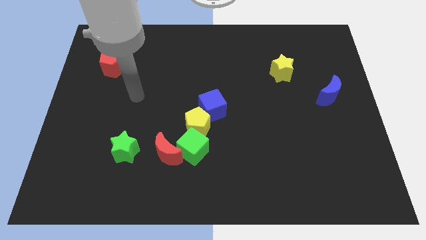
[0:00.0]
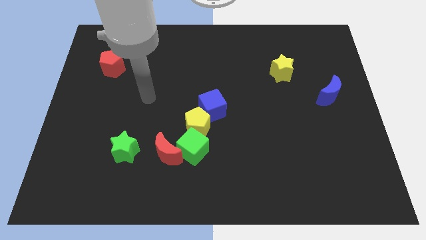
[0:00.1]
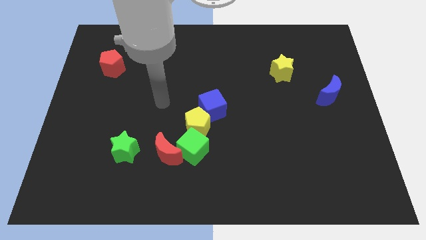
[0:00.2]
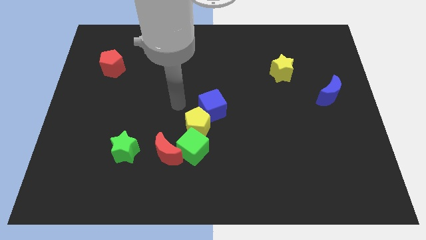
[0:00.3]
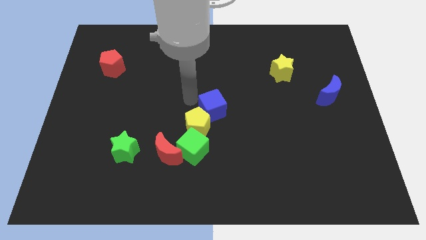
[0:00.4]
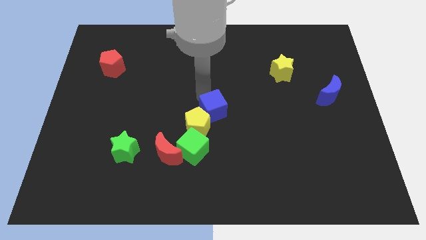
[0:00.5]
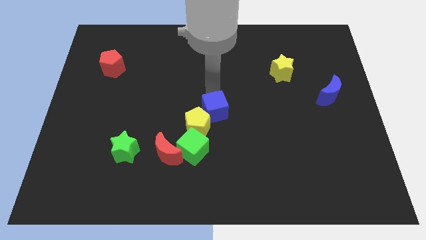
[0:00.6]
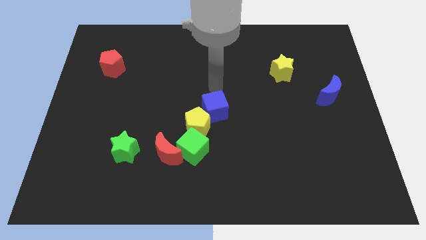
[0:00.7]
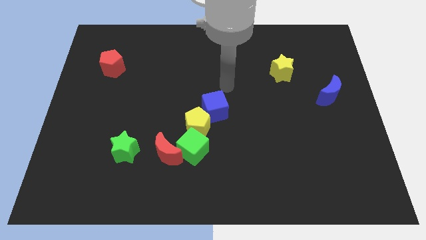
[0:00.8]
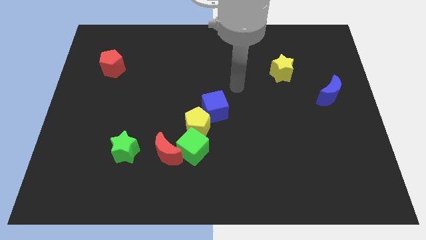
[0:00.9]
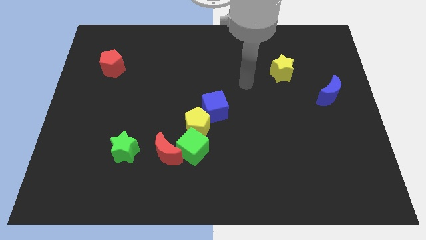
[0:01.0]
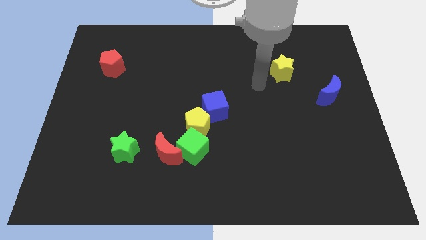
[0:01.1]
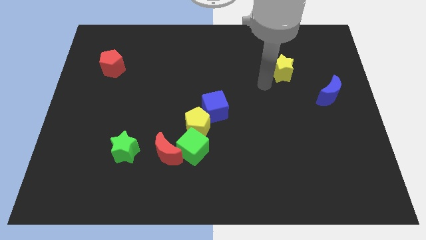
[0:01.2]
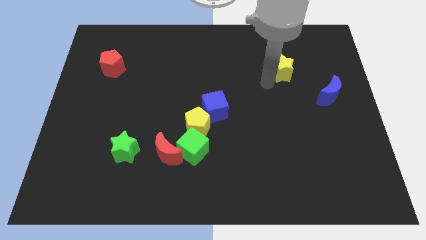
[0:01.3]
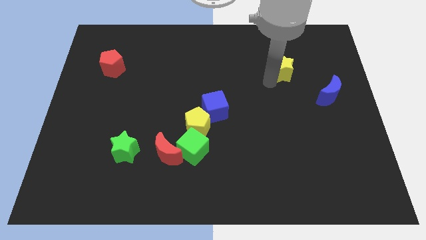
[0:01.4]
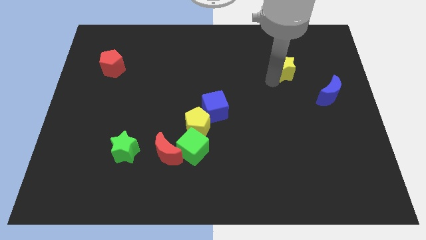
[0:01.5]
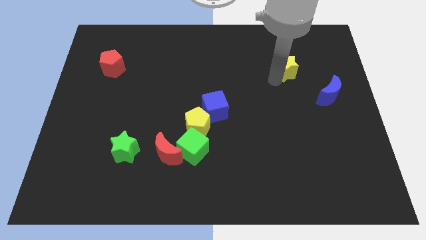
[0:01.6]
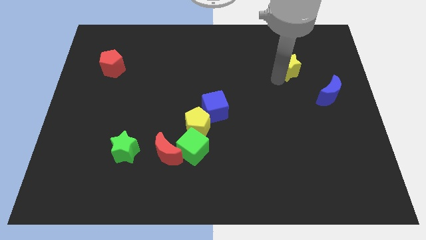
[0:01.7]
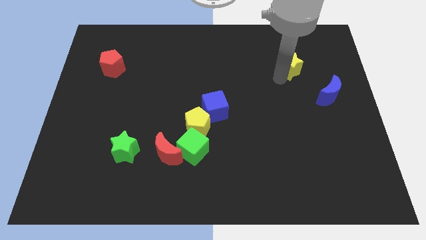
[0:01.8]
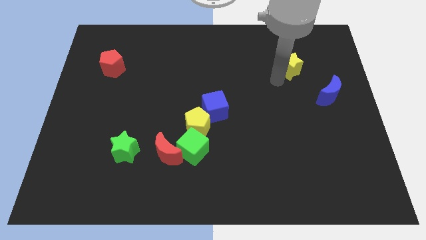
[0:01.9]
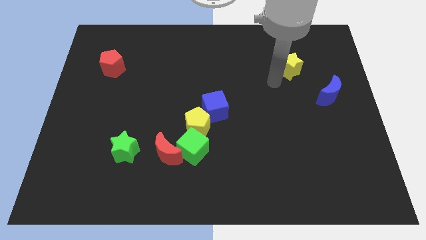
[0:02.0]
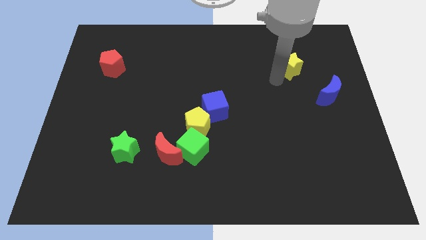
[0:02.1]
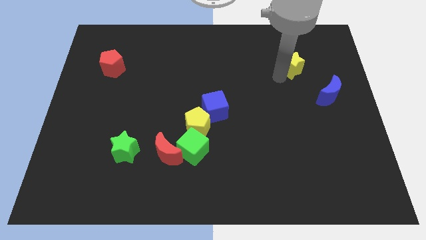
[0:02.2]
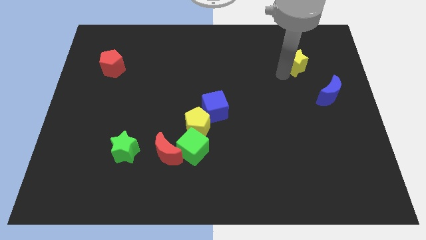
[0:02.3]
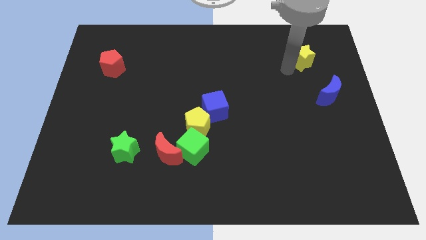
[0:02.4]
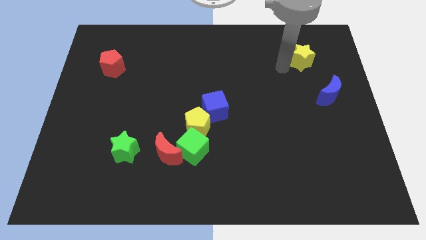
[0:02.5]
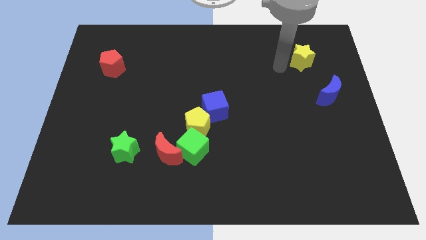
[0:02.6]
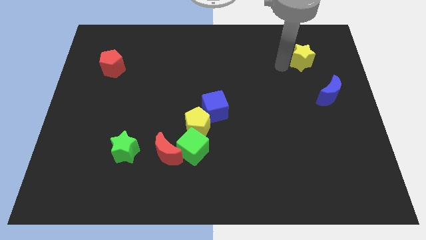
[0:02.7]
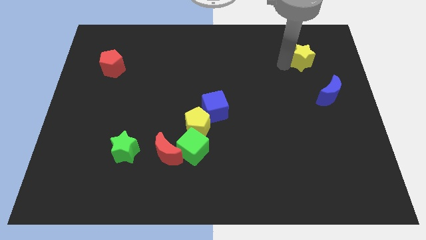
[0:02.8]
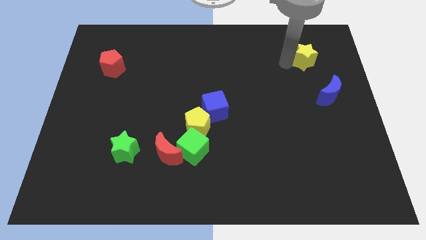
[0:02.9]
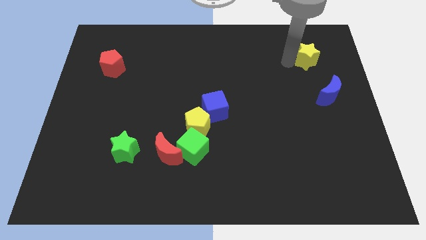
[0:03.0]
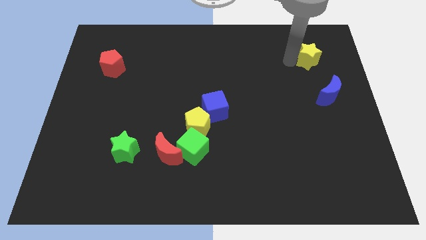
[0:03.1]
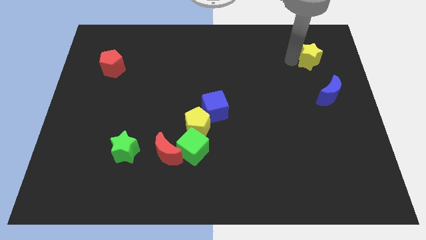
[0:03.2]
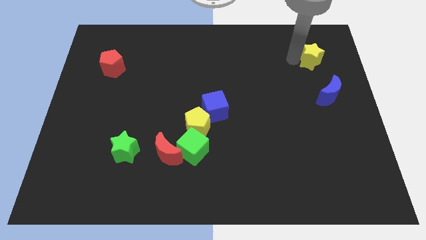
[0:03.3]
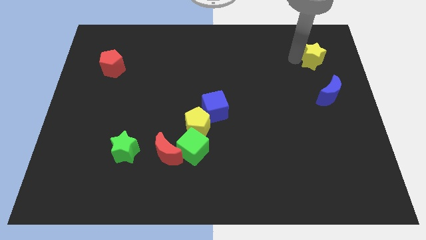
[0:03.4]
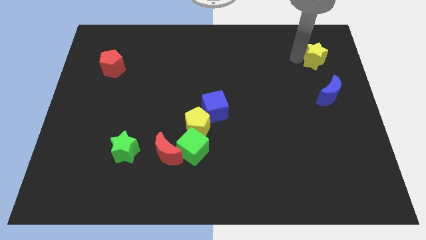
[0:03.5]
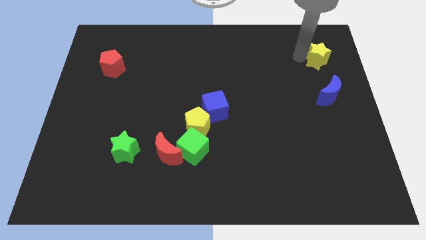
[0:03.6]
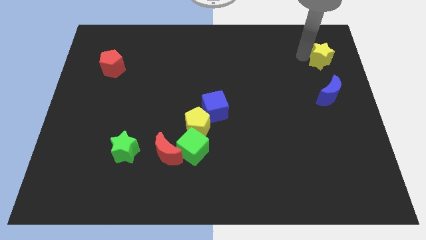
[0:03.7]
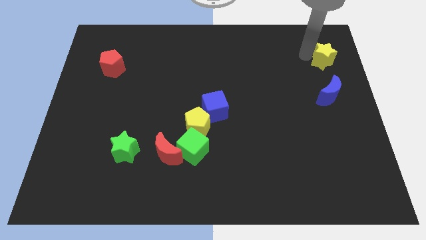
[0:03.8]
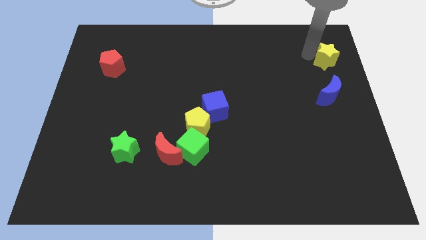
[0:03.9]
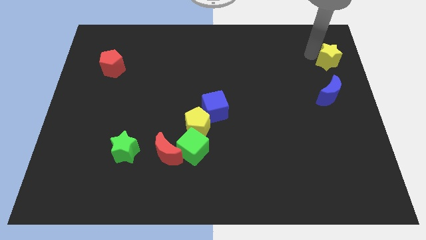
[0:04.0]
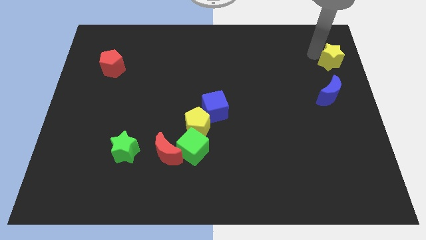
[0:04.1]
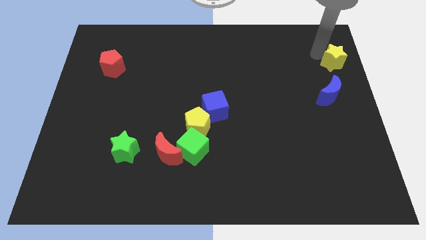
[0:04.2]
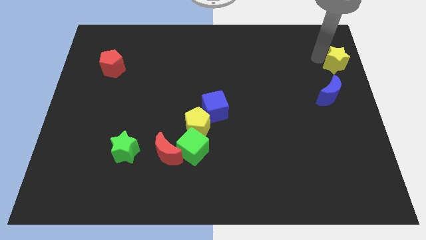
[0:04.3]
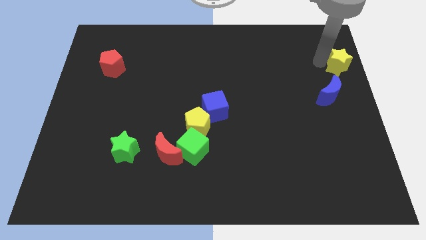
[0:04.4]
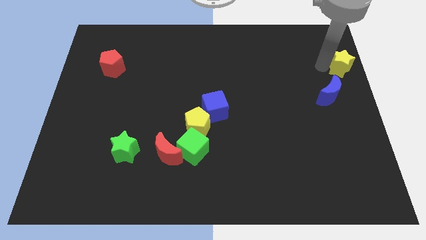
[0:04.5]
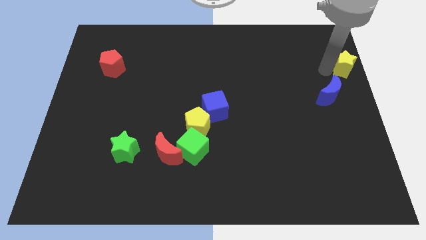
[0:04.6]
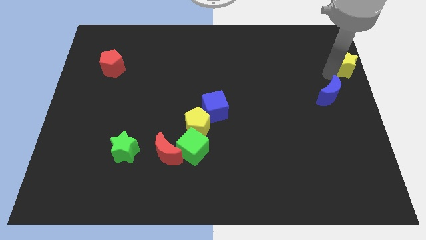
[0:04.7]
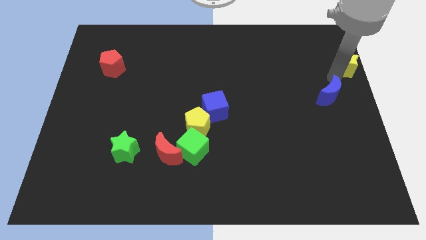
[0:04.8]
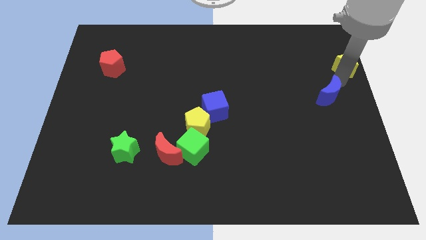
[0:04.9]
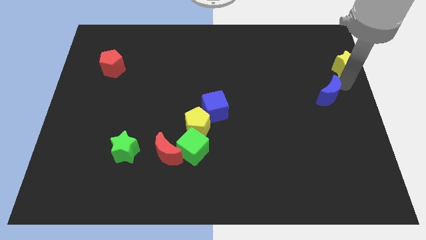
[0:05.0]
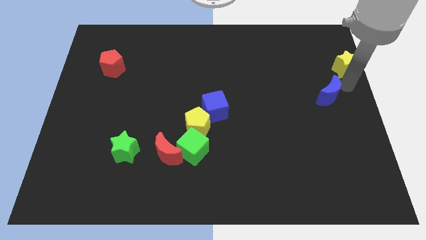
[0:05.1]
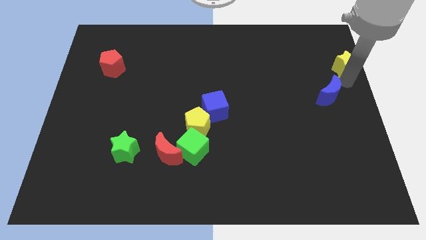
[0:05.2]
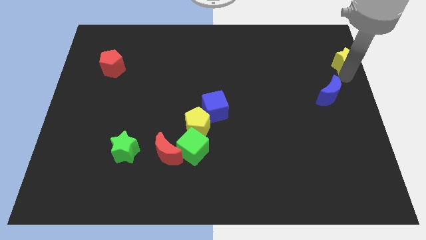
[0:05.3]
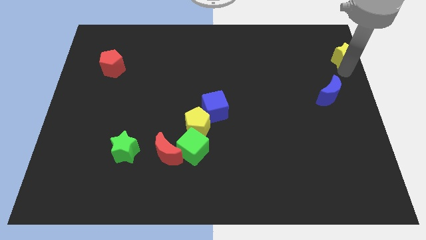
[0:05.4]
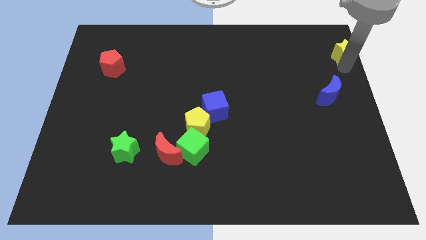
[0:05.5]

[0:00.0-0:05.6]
move the yellow star to the upper right corner
